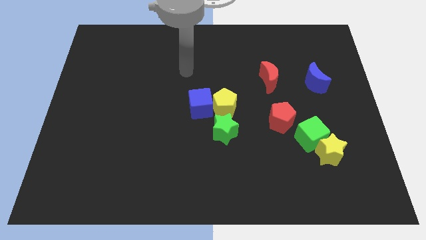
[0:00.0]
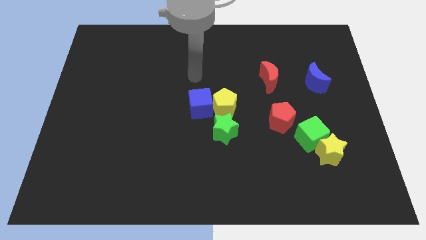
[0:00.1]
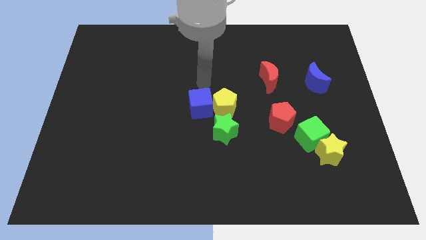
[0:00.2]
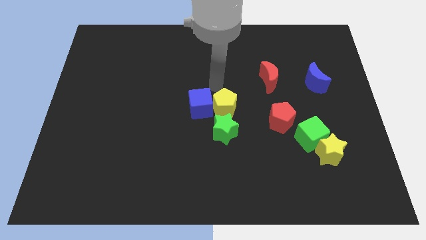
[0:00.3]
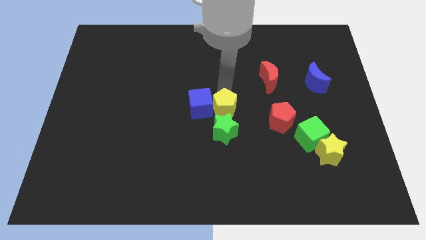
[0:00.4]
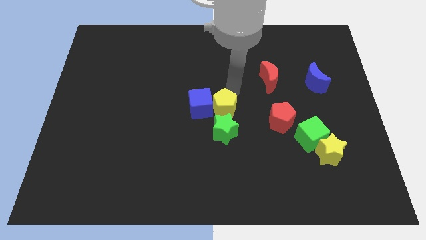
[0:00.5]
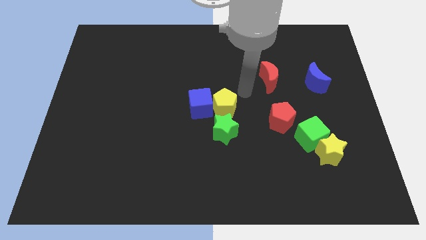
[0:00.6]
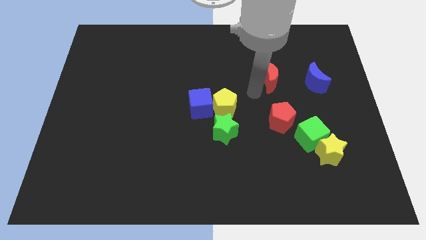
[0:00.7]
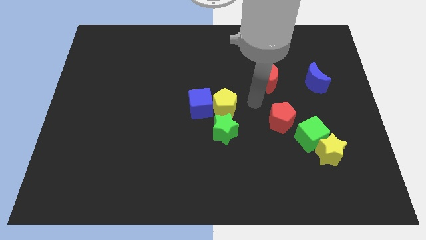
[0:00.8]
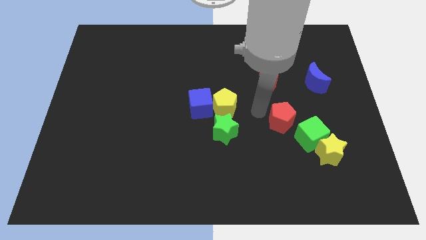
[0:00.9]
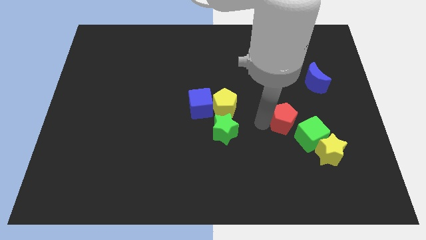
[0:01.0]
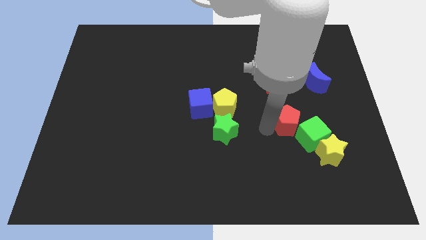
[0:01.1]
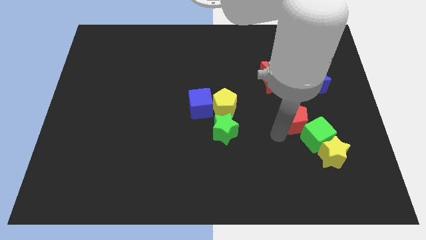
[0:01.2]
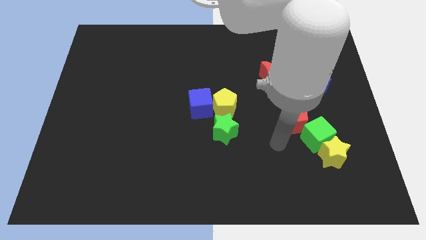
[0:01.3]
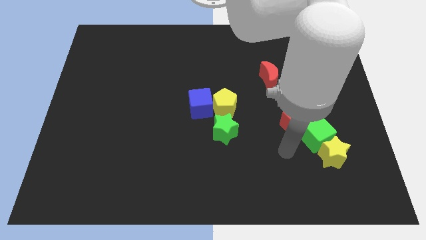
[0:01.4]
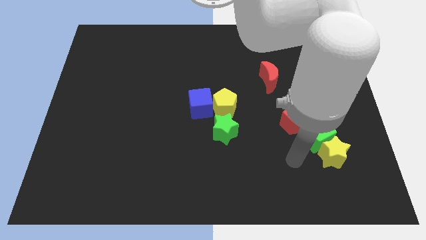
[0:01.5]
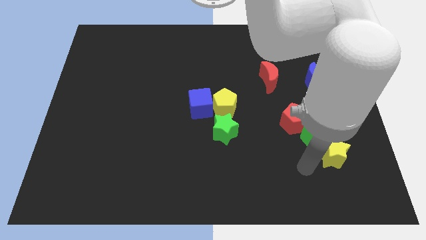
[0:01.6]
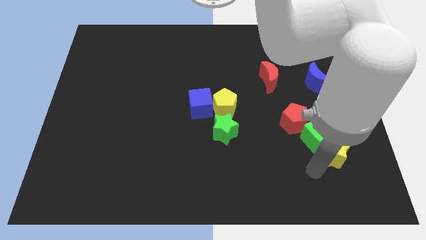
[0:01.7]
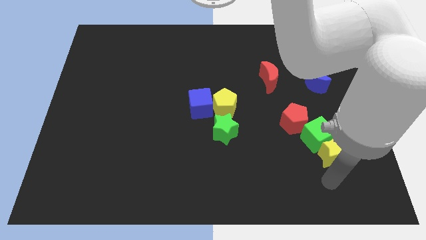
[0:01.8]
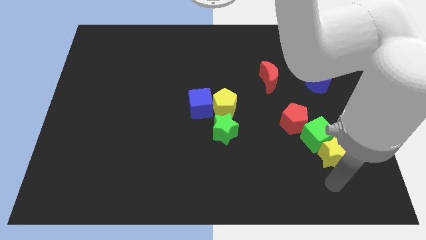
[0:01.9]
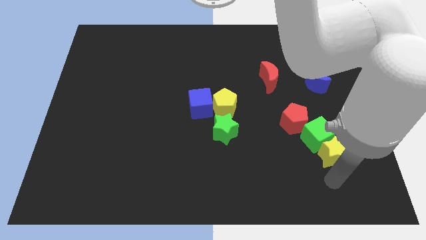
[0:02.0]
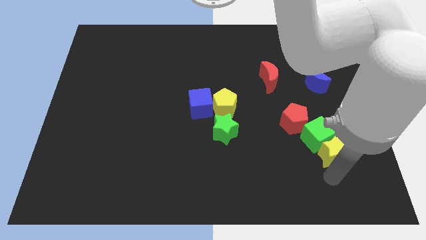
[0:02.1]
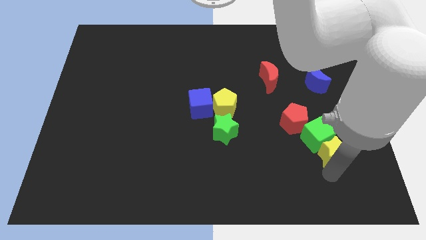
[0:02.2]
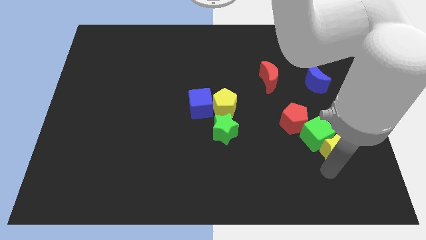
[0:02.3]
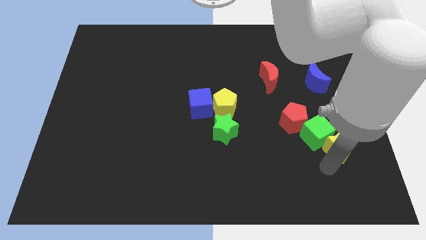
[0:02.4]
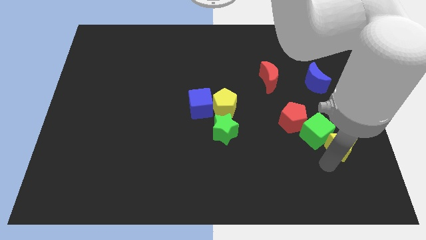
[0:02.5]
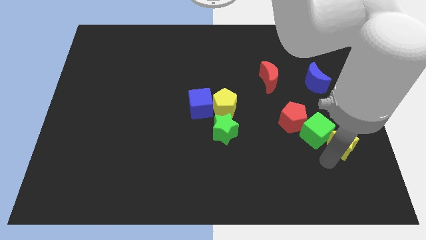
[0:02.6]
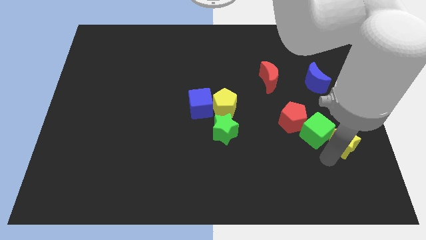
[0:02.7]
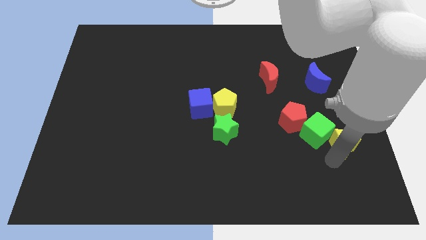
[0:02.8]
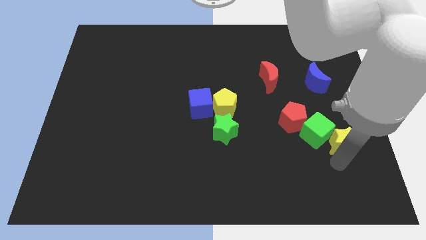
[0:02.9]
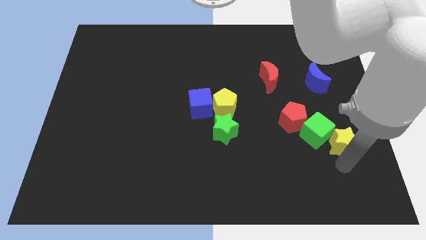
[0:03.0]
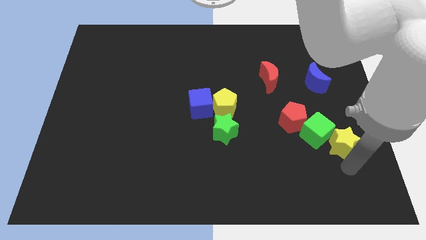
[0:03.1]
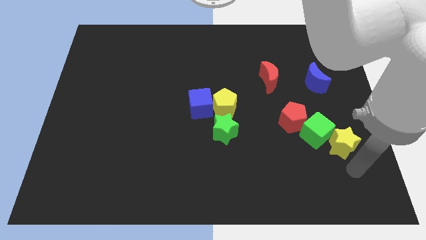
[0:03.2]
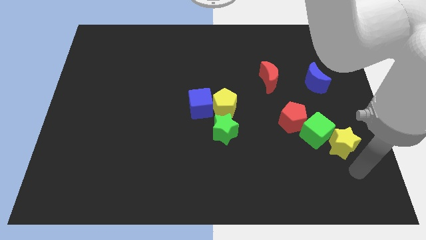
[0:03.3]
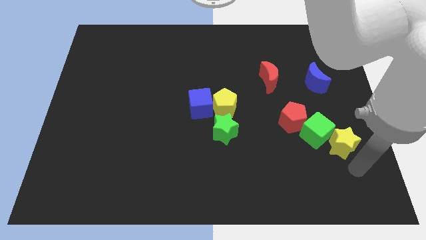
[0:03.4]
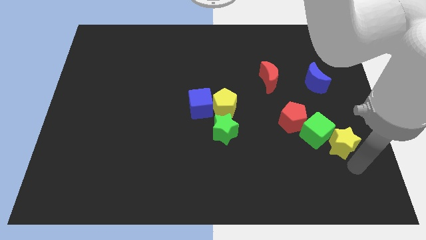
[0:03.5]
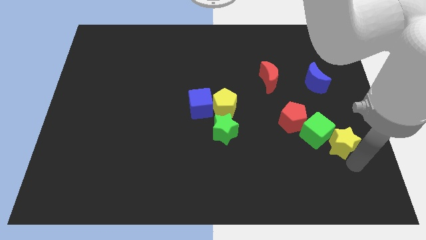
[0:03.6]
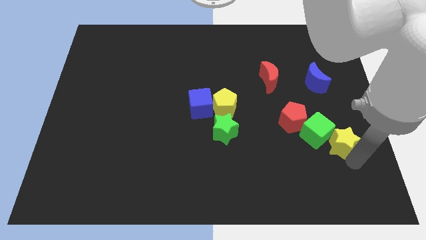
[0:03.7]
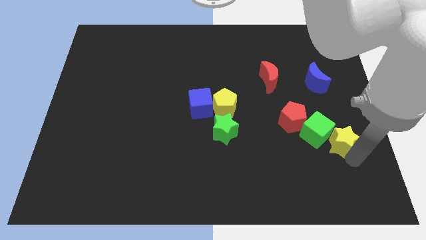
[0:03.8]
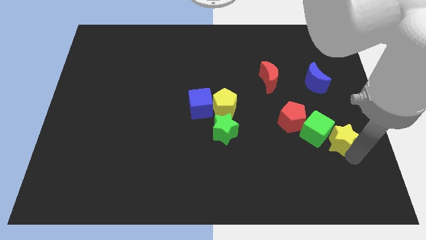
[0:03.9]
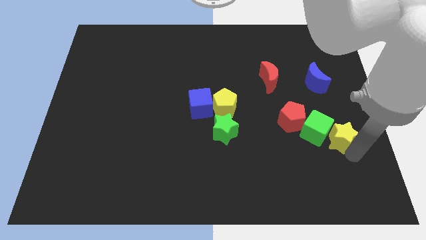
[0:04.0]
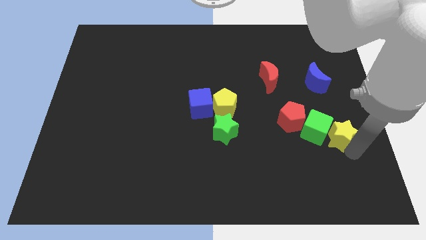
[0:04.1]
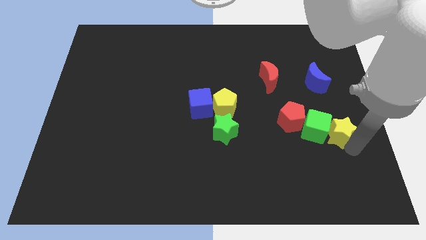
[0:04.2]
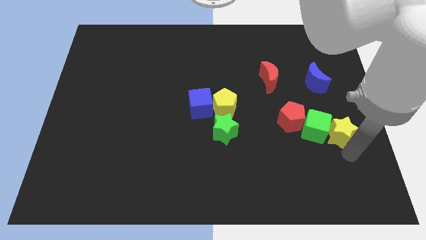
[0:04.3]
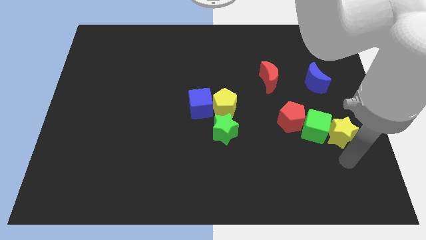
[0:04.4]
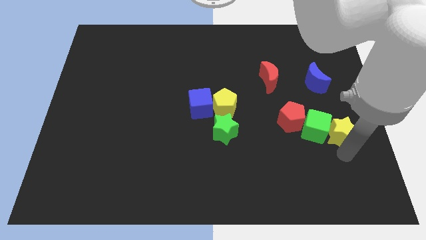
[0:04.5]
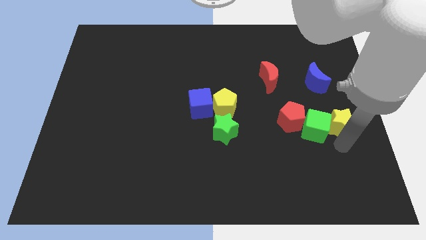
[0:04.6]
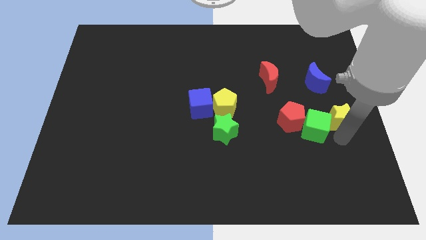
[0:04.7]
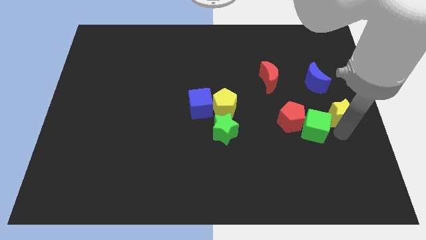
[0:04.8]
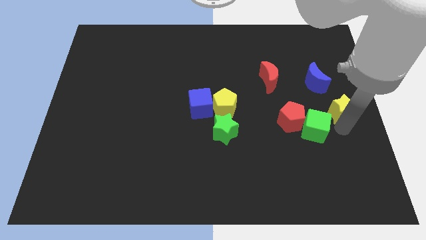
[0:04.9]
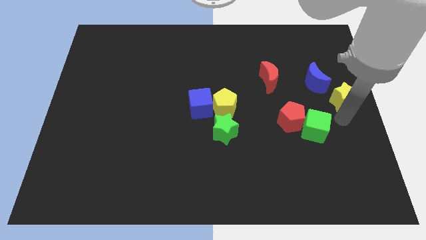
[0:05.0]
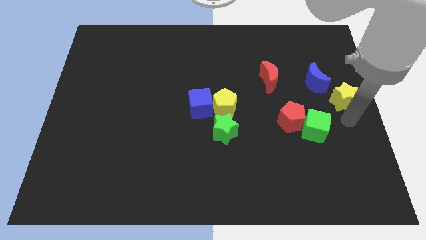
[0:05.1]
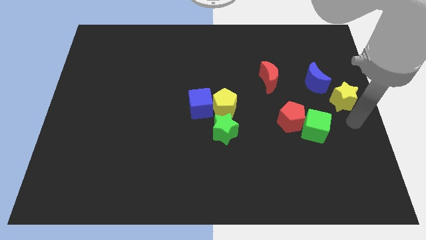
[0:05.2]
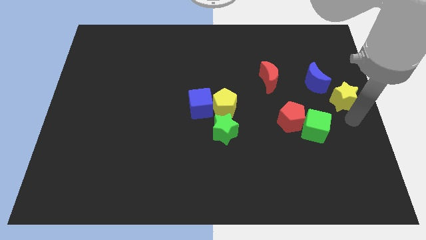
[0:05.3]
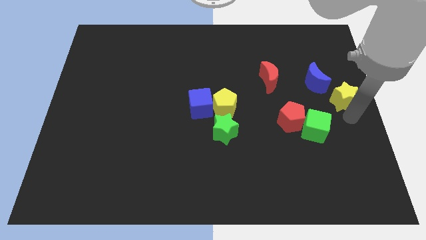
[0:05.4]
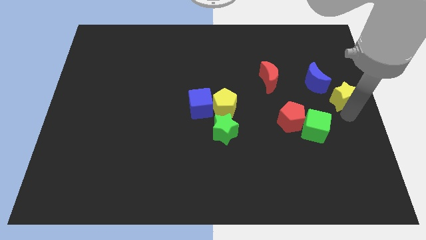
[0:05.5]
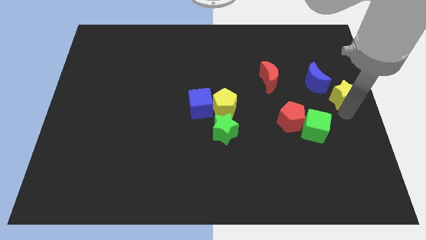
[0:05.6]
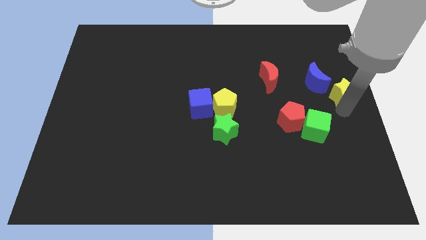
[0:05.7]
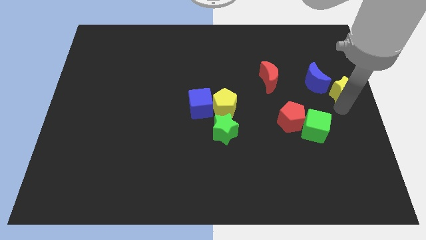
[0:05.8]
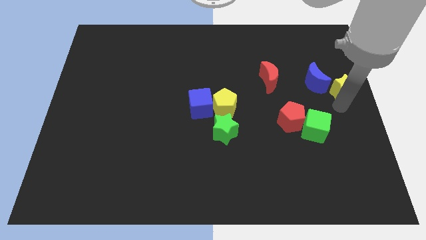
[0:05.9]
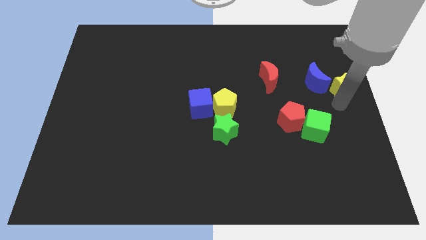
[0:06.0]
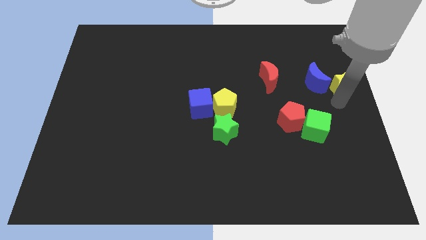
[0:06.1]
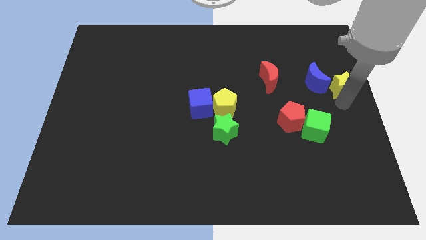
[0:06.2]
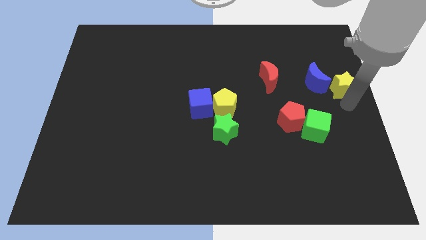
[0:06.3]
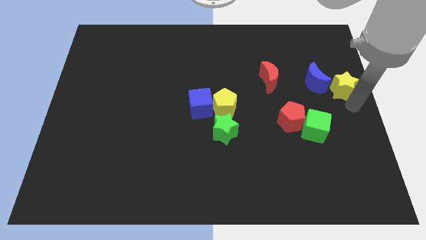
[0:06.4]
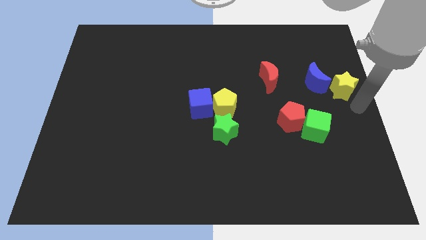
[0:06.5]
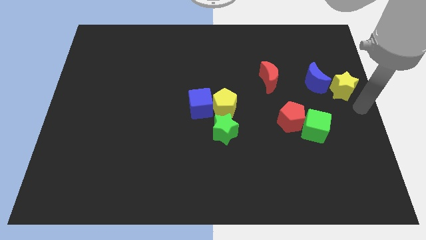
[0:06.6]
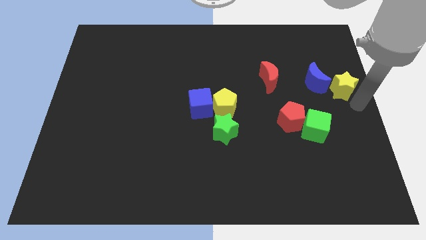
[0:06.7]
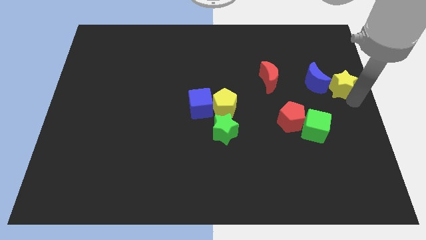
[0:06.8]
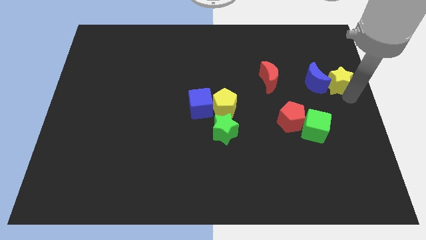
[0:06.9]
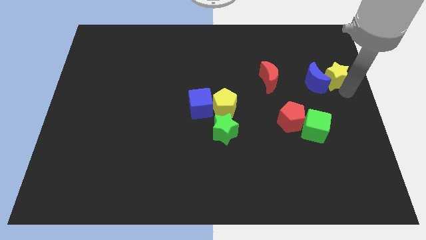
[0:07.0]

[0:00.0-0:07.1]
move the yellow star to the right of the red moon
